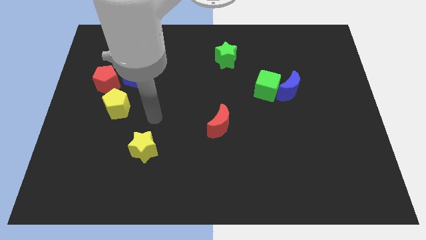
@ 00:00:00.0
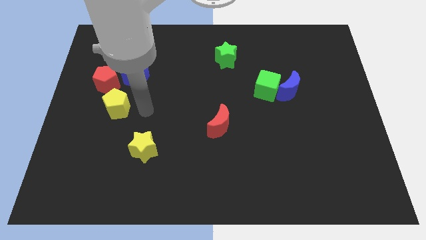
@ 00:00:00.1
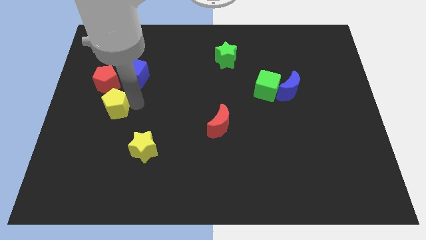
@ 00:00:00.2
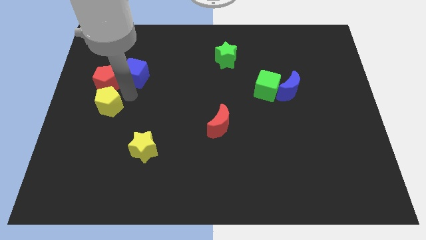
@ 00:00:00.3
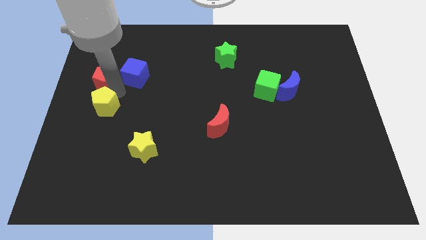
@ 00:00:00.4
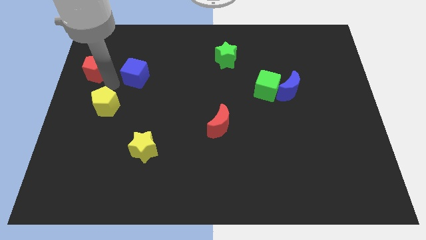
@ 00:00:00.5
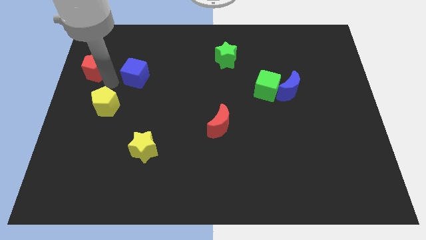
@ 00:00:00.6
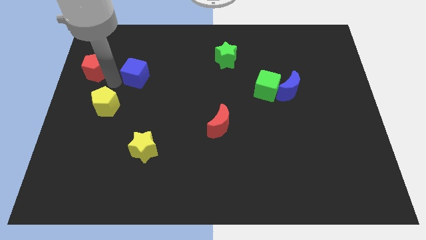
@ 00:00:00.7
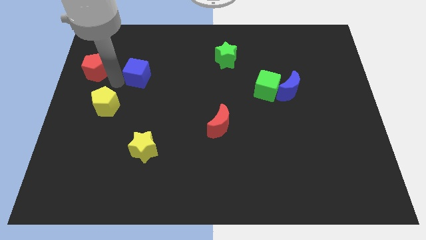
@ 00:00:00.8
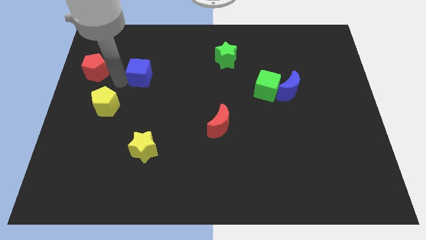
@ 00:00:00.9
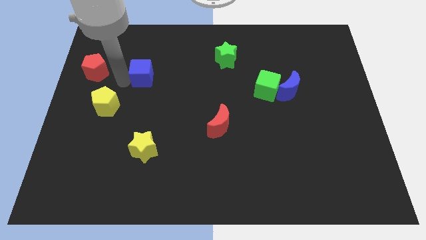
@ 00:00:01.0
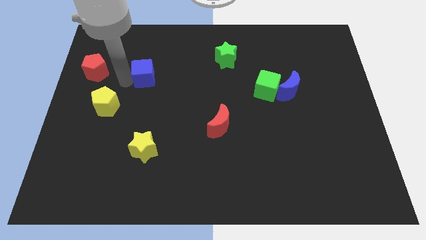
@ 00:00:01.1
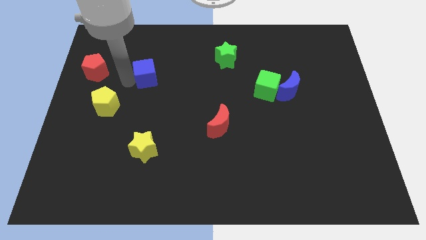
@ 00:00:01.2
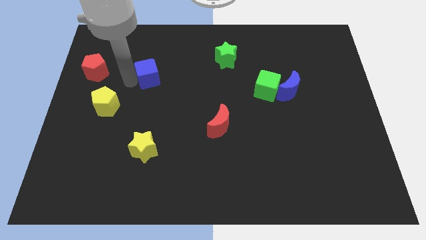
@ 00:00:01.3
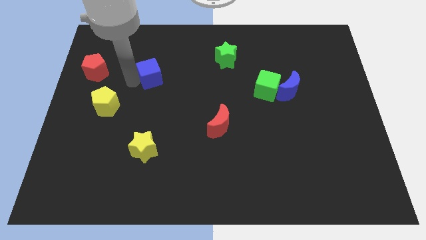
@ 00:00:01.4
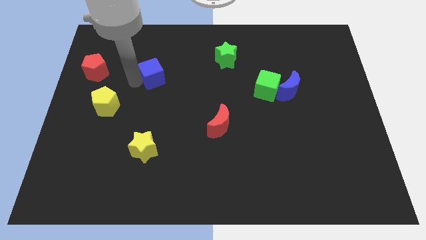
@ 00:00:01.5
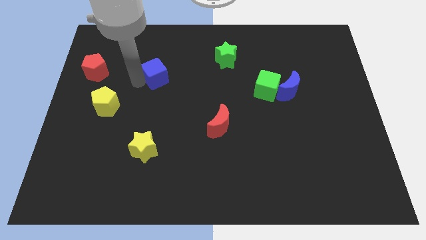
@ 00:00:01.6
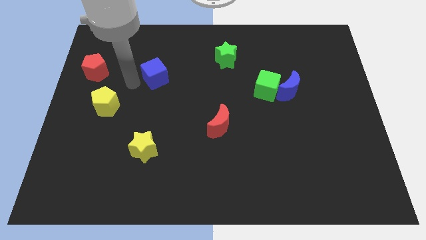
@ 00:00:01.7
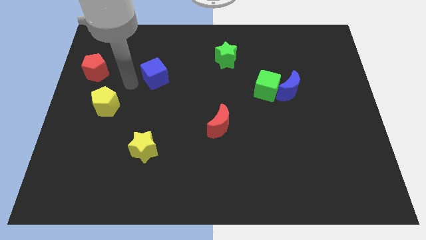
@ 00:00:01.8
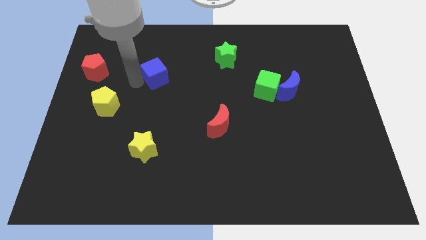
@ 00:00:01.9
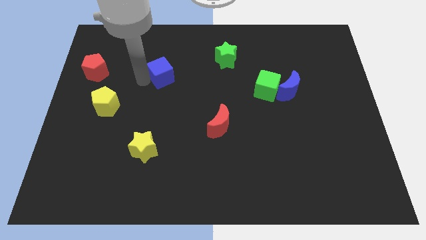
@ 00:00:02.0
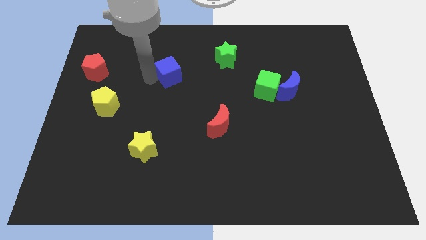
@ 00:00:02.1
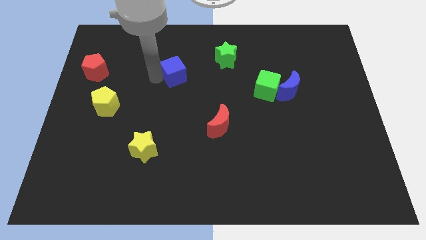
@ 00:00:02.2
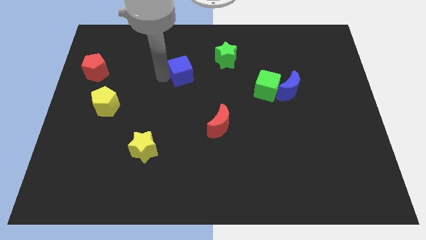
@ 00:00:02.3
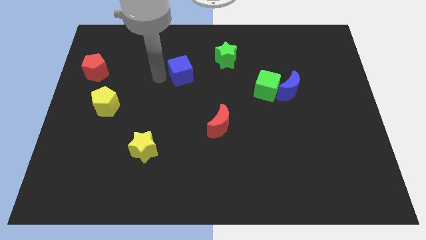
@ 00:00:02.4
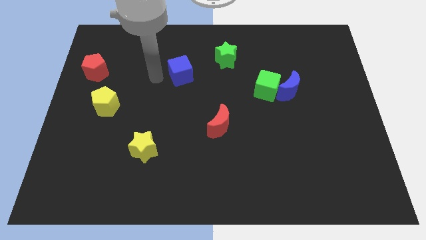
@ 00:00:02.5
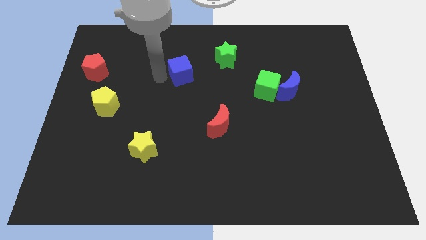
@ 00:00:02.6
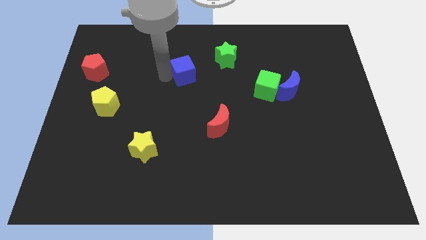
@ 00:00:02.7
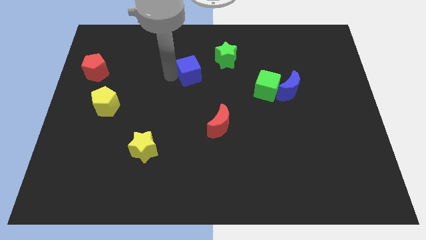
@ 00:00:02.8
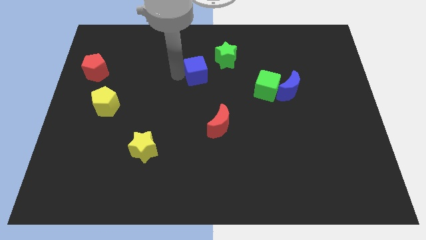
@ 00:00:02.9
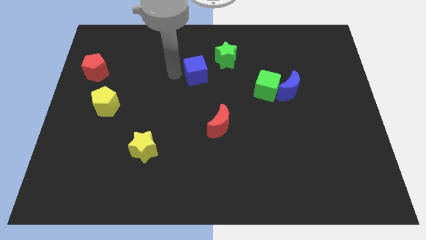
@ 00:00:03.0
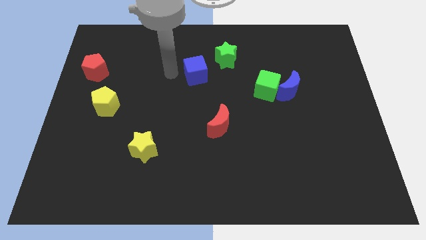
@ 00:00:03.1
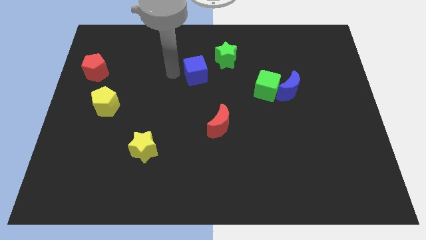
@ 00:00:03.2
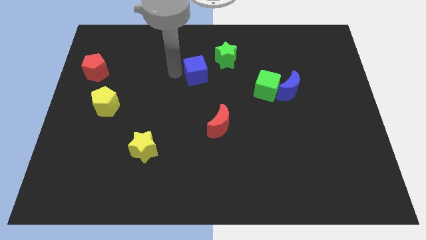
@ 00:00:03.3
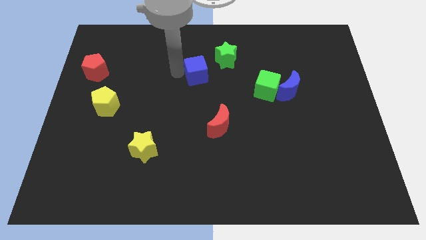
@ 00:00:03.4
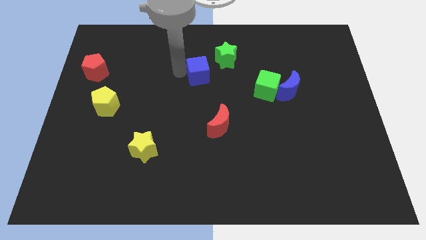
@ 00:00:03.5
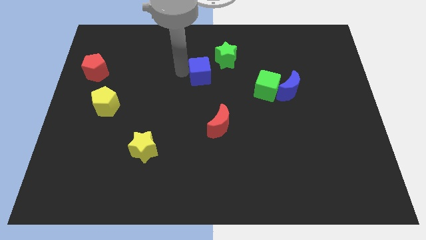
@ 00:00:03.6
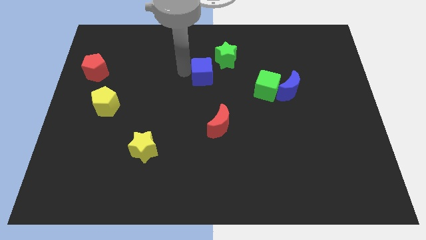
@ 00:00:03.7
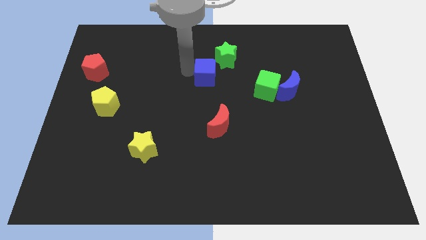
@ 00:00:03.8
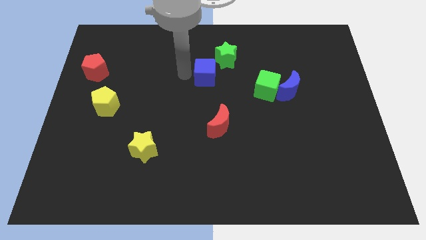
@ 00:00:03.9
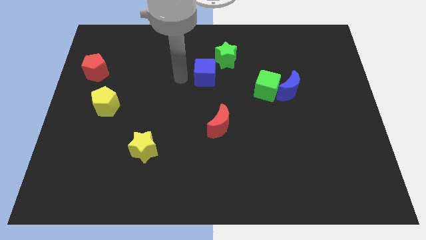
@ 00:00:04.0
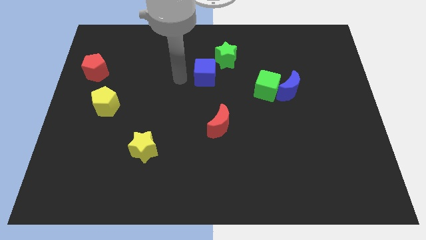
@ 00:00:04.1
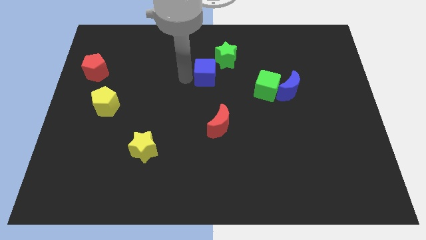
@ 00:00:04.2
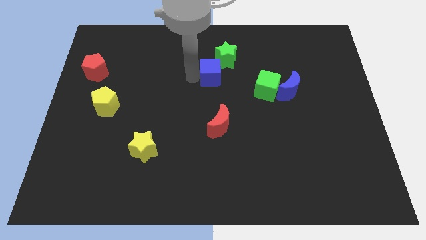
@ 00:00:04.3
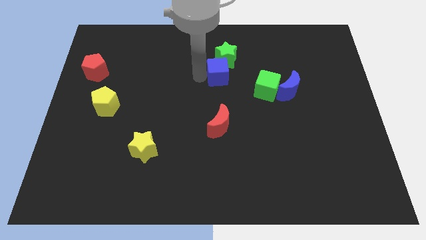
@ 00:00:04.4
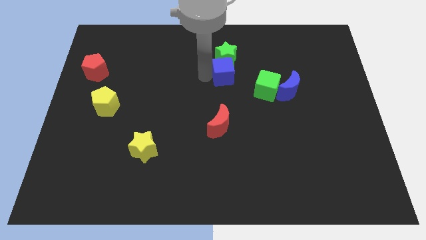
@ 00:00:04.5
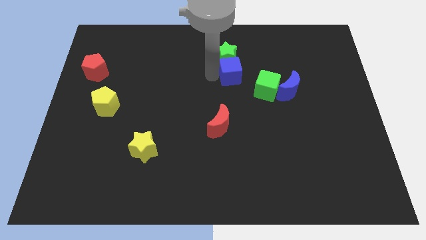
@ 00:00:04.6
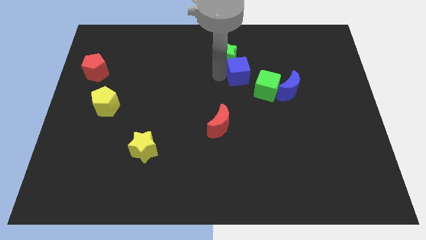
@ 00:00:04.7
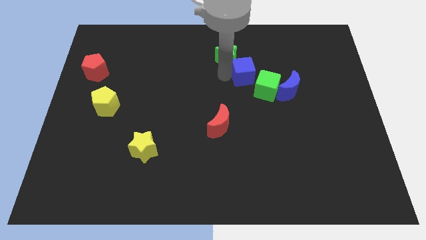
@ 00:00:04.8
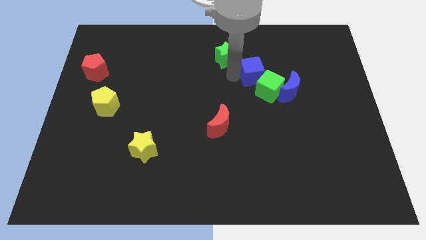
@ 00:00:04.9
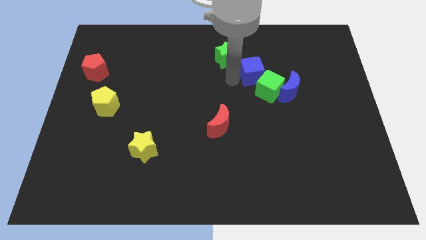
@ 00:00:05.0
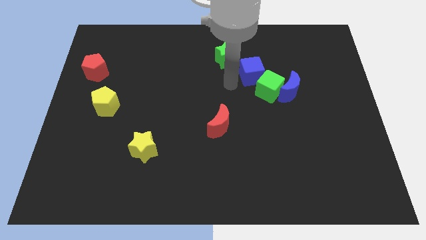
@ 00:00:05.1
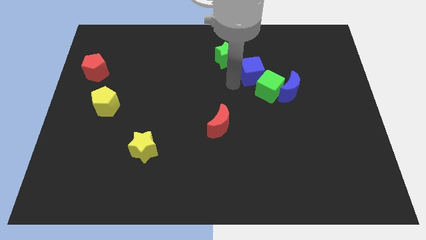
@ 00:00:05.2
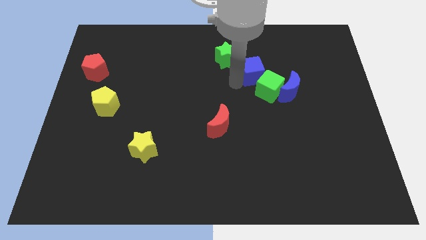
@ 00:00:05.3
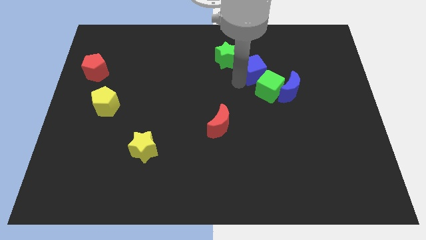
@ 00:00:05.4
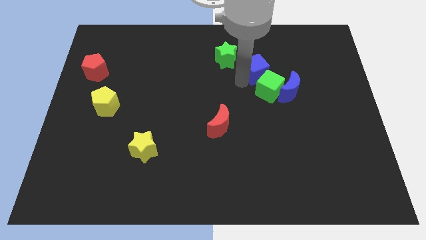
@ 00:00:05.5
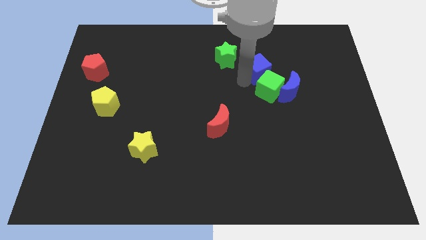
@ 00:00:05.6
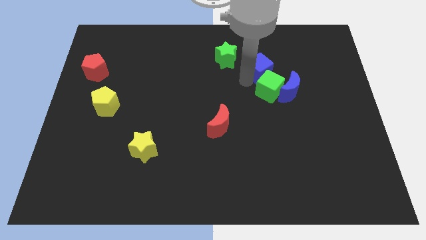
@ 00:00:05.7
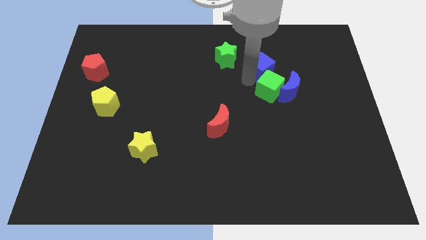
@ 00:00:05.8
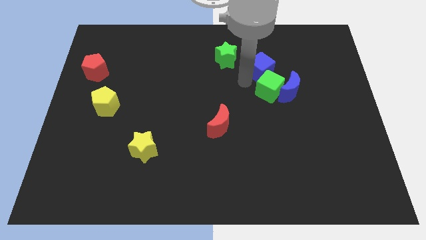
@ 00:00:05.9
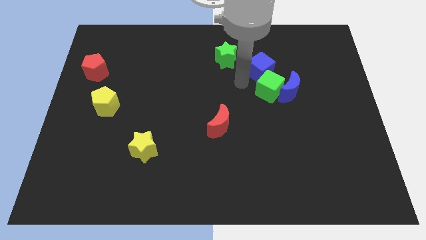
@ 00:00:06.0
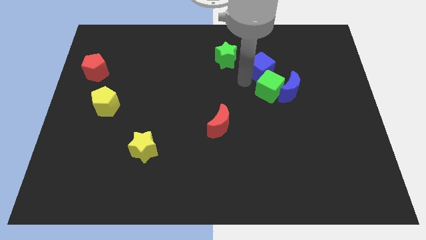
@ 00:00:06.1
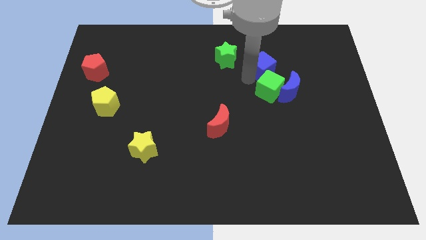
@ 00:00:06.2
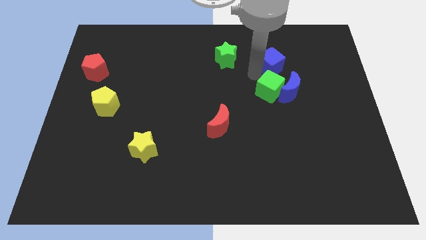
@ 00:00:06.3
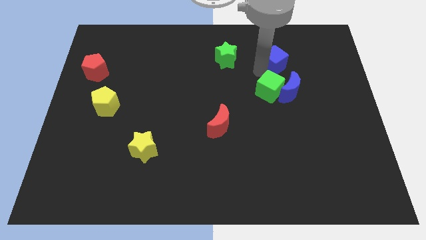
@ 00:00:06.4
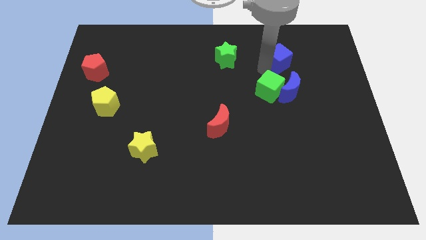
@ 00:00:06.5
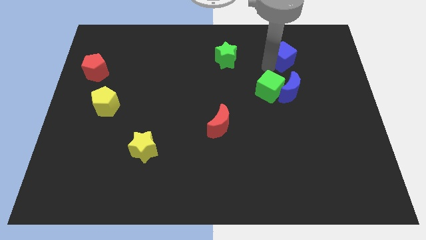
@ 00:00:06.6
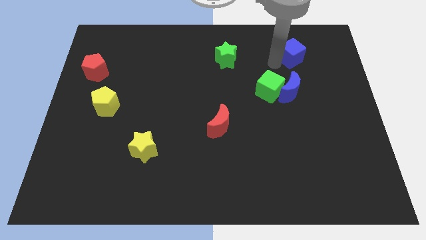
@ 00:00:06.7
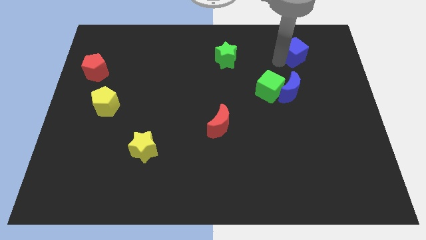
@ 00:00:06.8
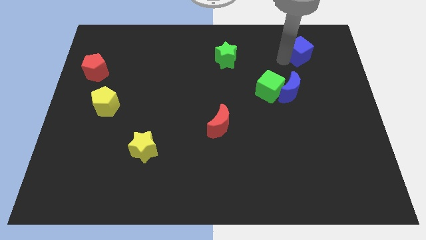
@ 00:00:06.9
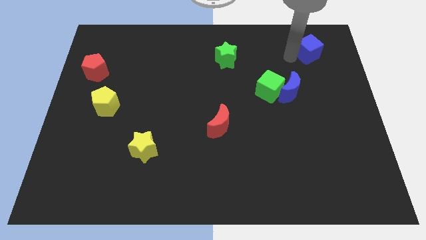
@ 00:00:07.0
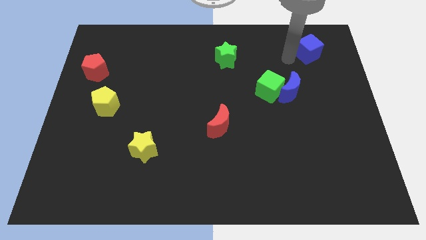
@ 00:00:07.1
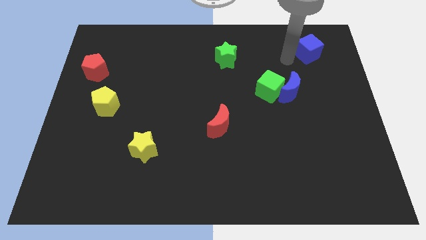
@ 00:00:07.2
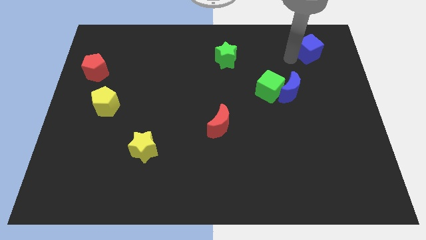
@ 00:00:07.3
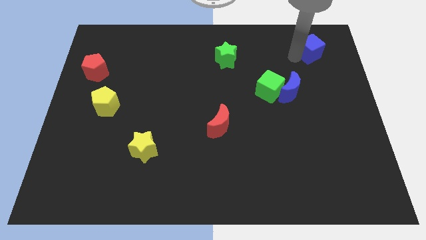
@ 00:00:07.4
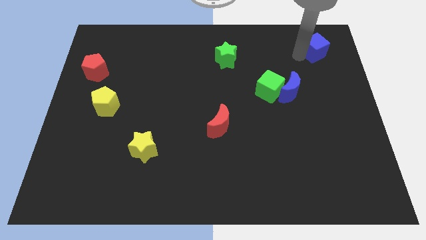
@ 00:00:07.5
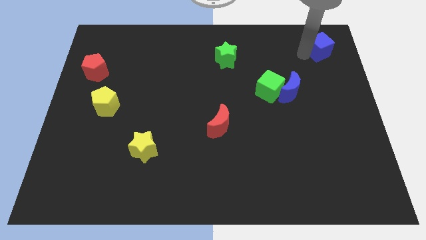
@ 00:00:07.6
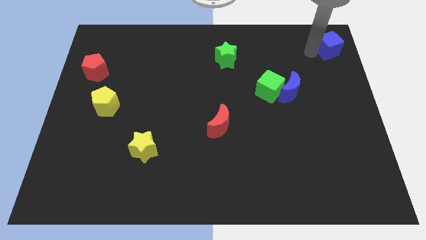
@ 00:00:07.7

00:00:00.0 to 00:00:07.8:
put the blue cube to the upper right corner
